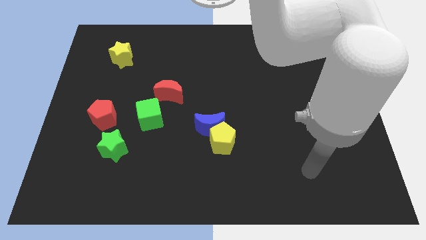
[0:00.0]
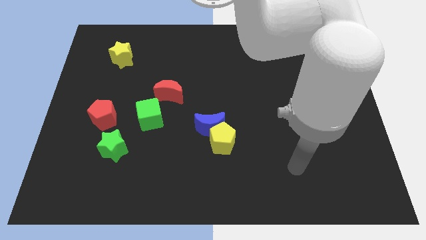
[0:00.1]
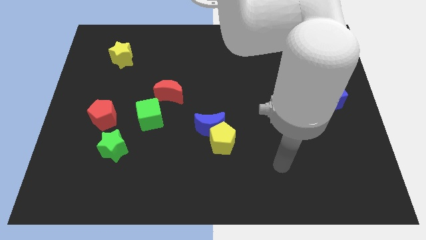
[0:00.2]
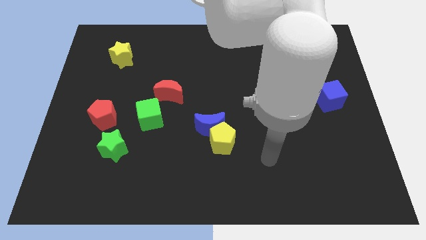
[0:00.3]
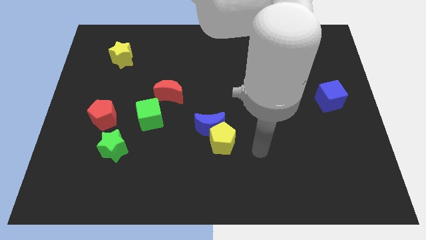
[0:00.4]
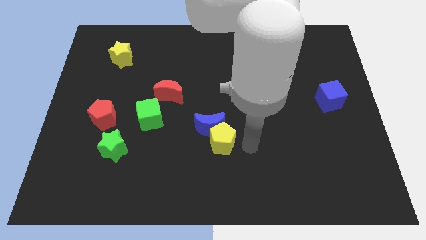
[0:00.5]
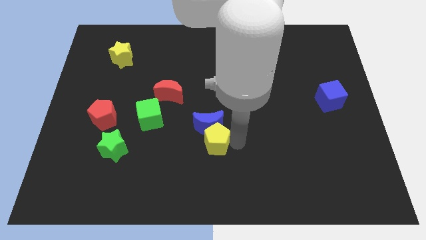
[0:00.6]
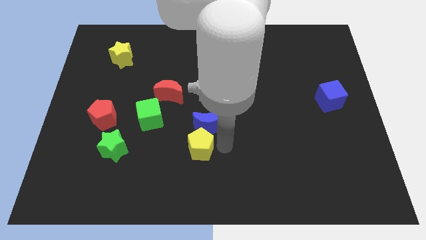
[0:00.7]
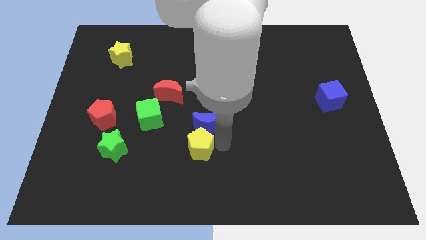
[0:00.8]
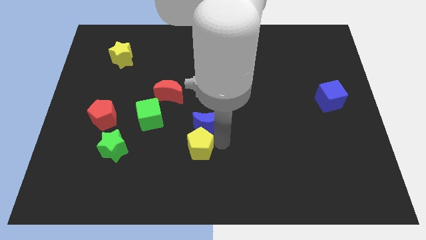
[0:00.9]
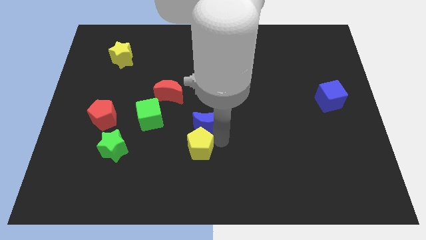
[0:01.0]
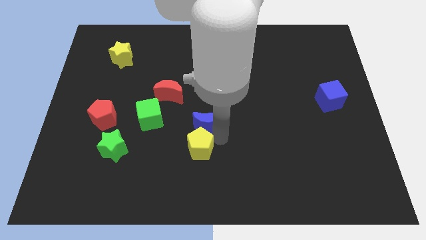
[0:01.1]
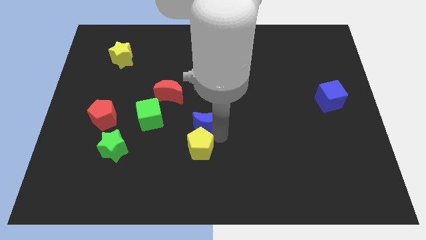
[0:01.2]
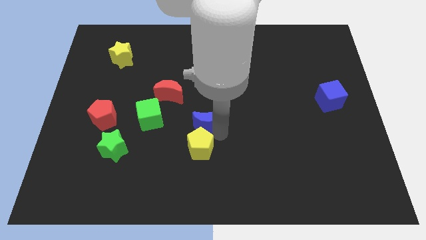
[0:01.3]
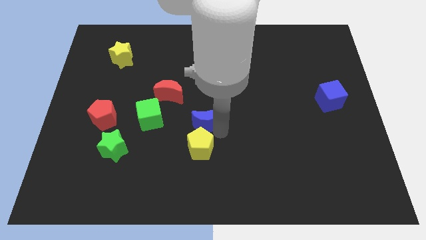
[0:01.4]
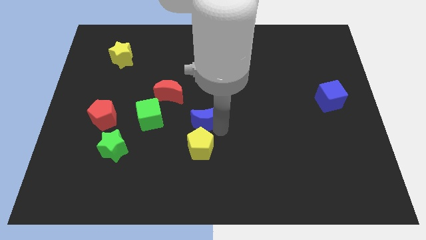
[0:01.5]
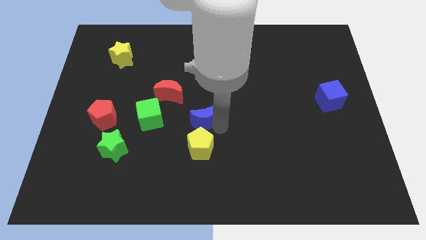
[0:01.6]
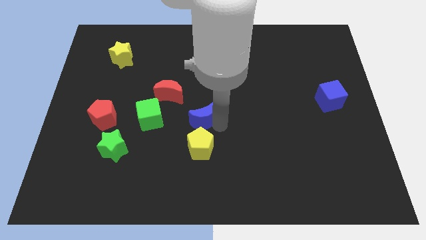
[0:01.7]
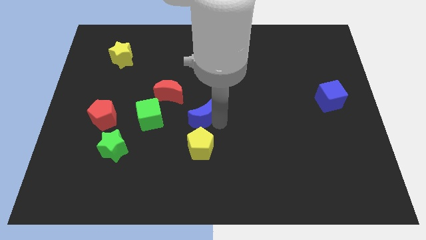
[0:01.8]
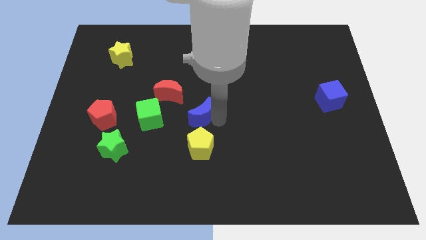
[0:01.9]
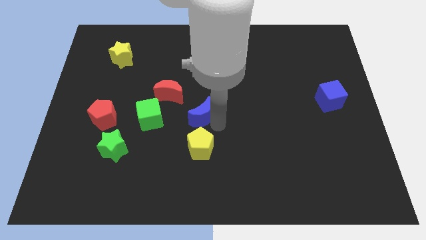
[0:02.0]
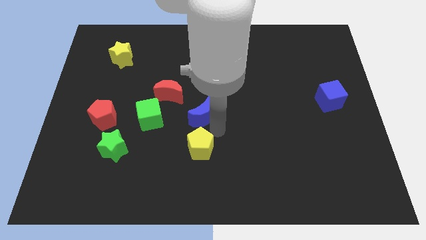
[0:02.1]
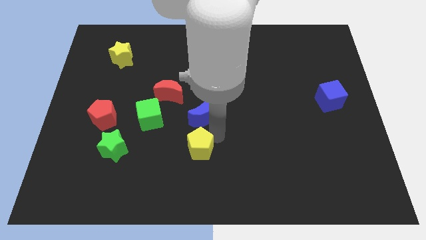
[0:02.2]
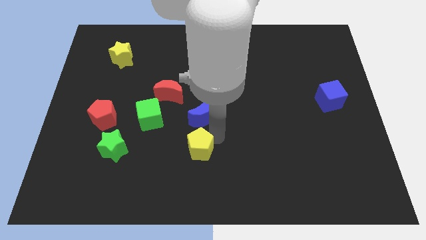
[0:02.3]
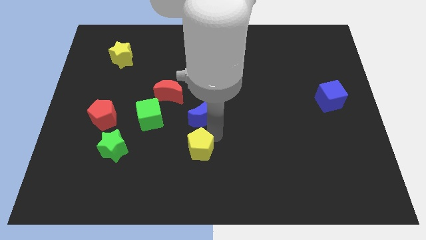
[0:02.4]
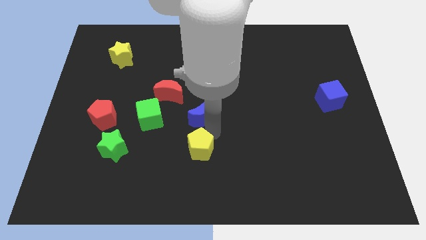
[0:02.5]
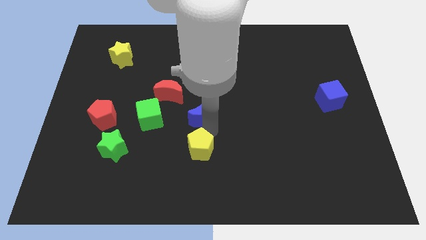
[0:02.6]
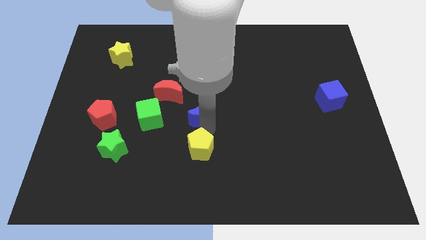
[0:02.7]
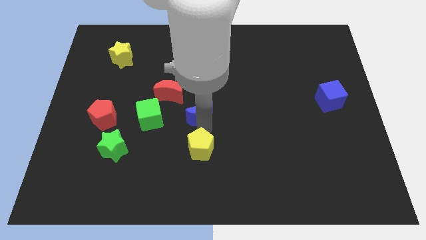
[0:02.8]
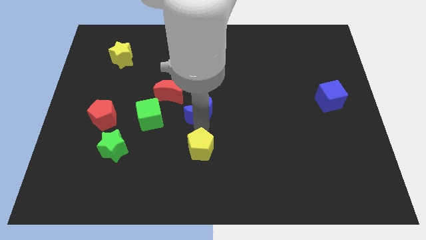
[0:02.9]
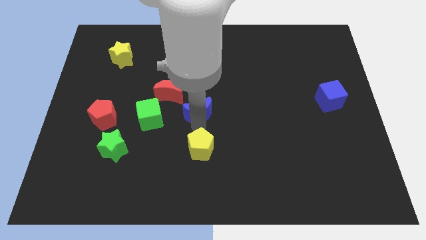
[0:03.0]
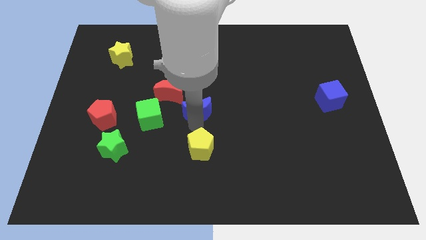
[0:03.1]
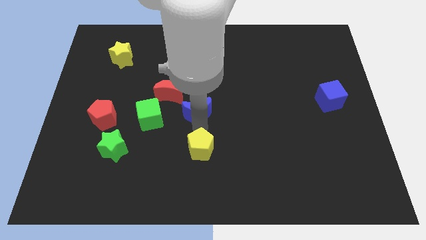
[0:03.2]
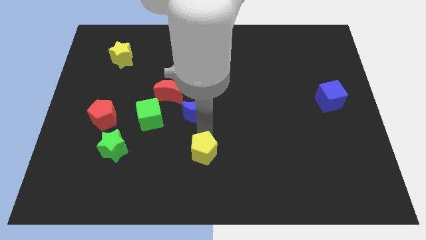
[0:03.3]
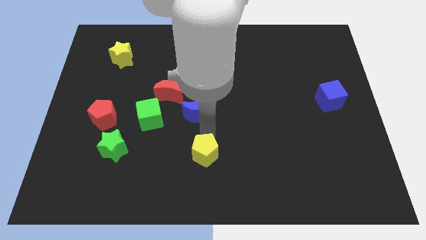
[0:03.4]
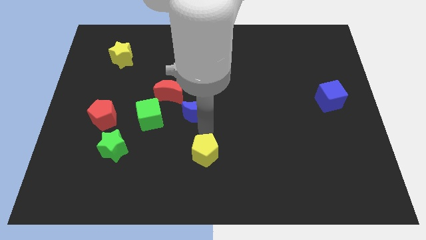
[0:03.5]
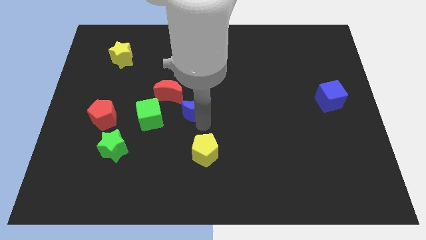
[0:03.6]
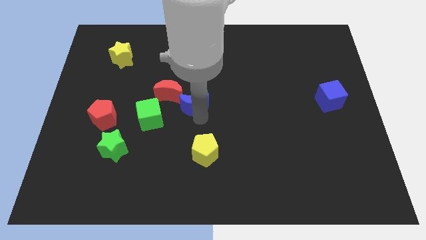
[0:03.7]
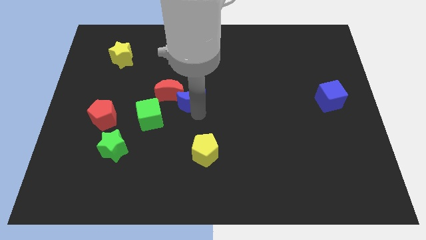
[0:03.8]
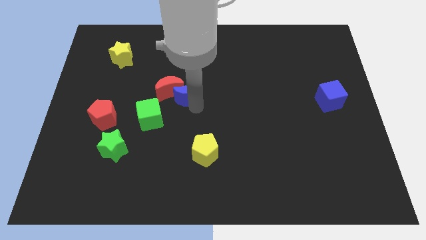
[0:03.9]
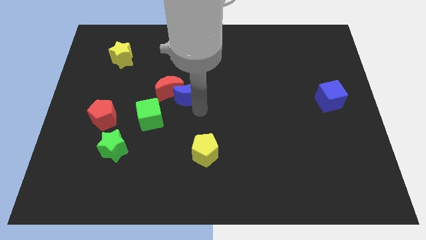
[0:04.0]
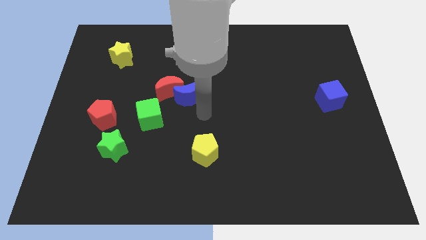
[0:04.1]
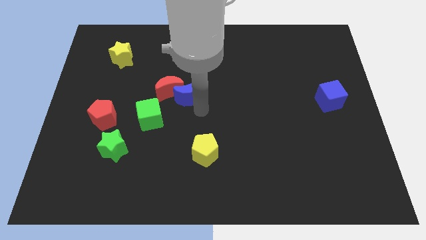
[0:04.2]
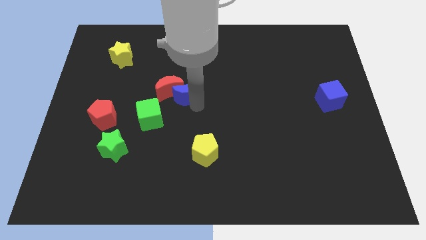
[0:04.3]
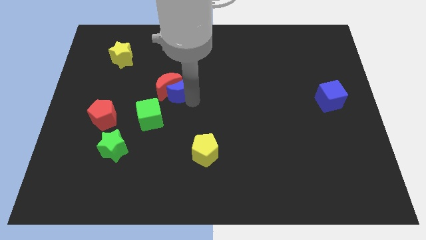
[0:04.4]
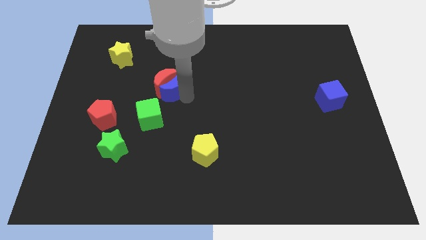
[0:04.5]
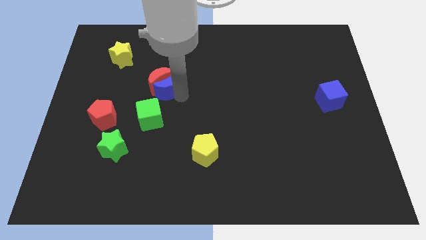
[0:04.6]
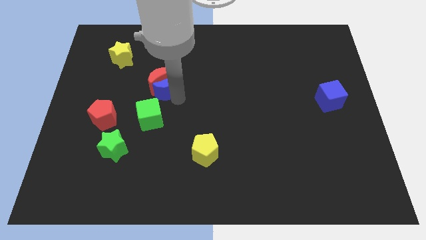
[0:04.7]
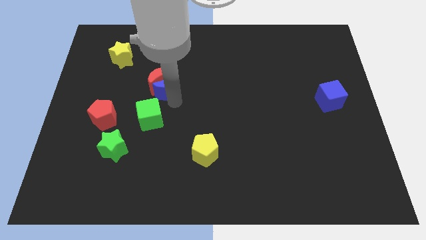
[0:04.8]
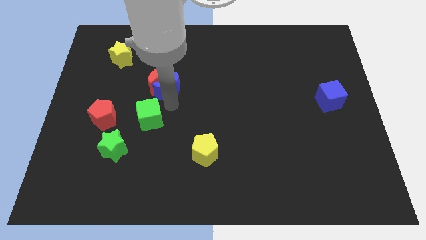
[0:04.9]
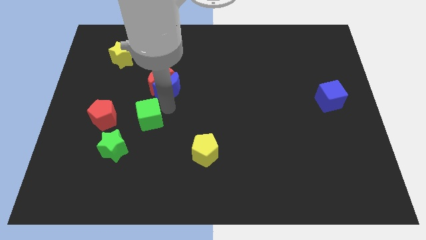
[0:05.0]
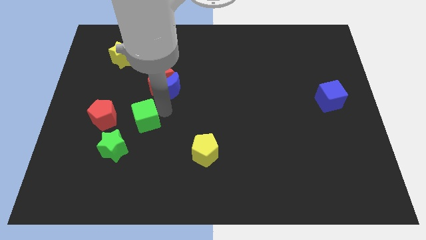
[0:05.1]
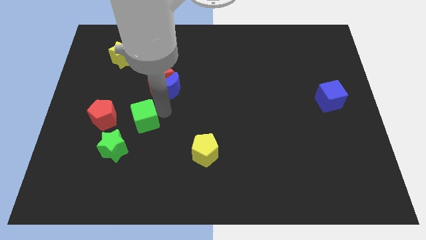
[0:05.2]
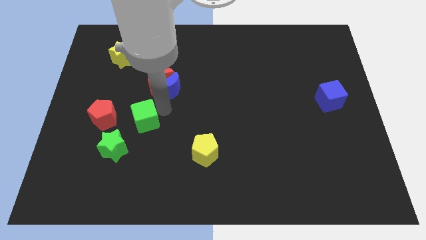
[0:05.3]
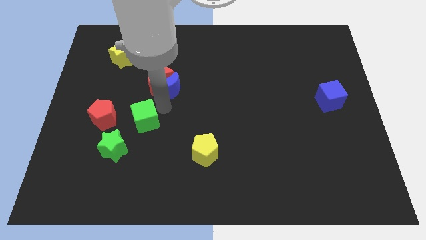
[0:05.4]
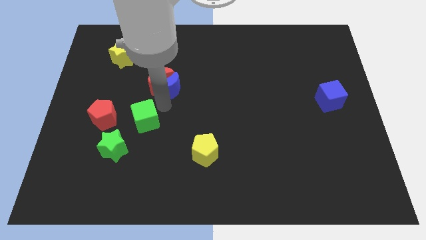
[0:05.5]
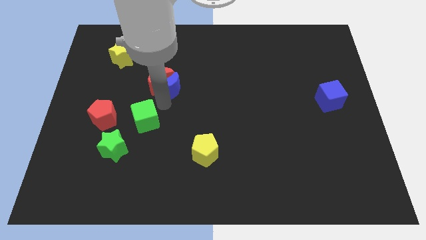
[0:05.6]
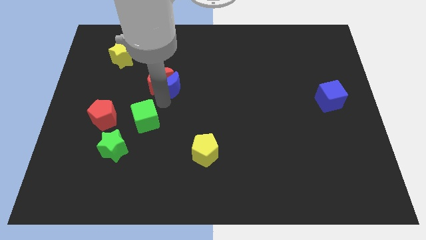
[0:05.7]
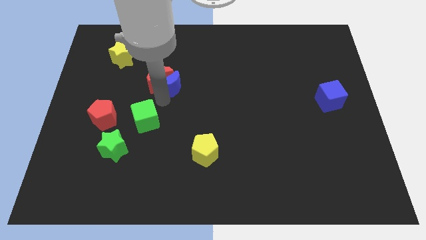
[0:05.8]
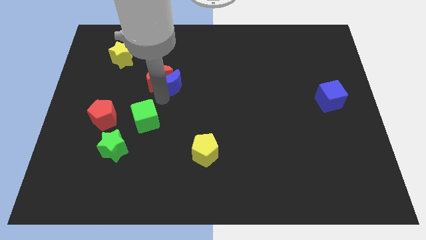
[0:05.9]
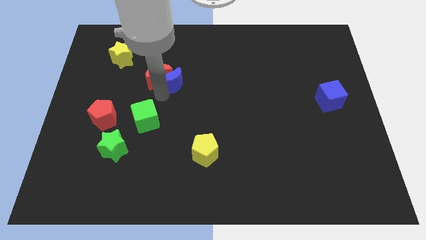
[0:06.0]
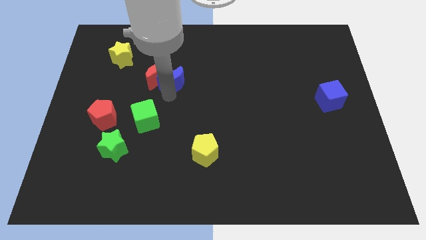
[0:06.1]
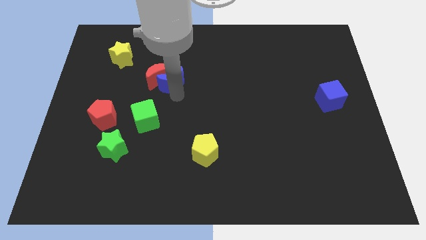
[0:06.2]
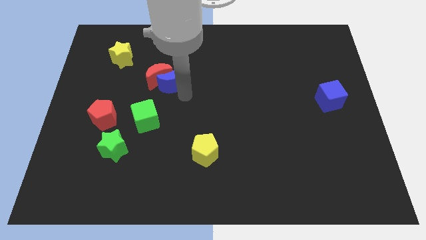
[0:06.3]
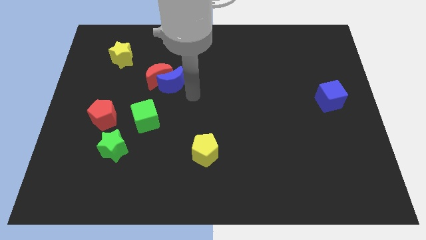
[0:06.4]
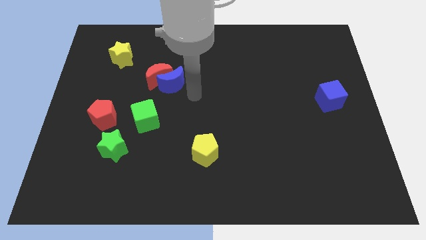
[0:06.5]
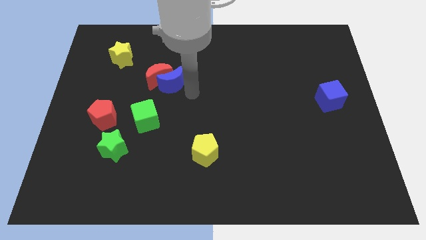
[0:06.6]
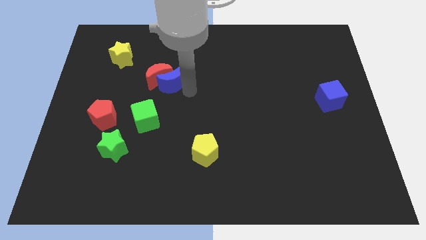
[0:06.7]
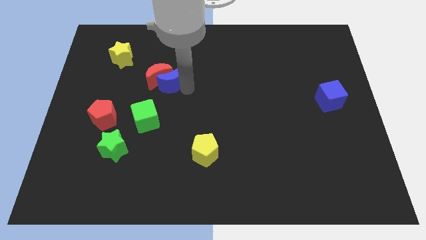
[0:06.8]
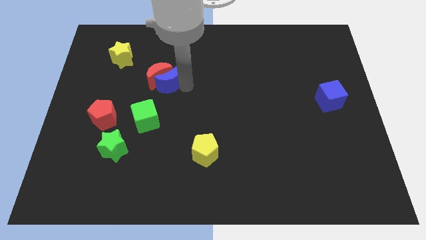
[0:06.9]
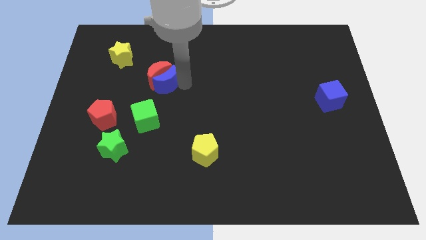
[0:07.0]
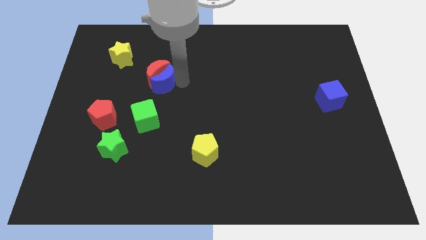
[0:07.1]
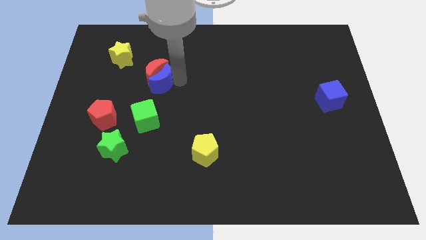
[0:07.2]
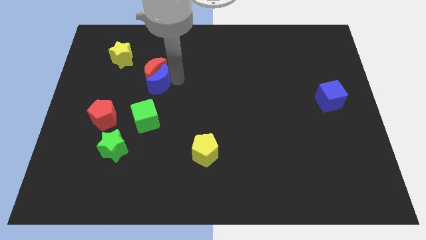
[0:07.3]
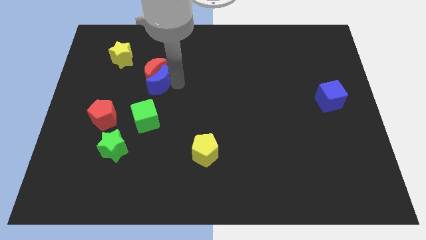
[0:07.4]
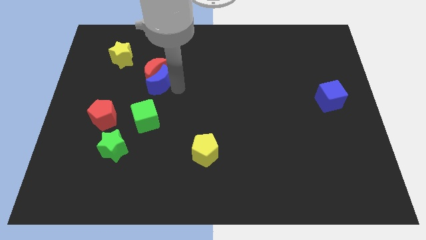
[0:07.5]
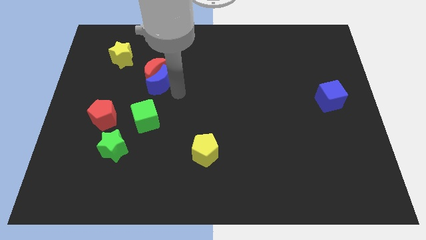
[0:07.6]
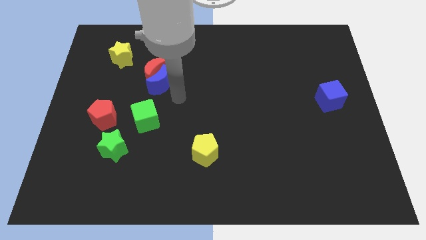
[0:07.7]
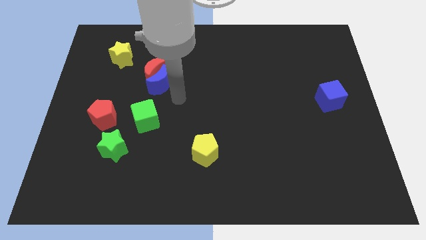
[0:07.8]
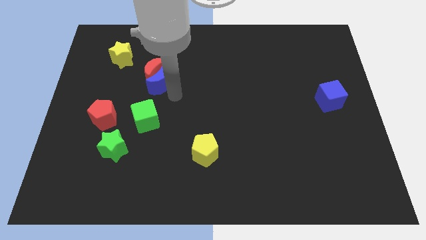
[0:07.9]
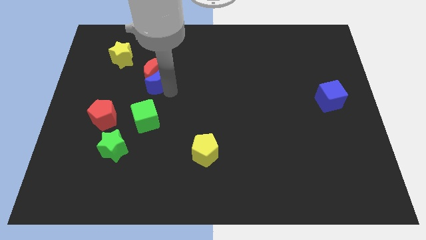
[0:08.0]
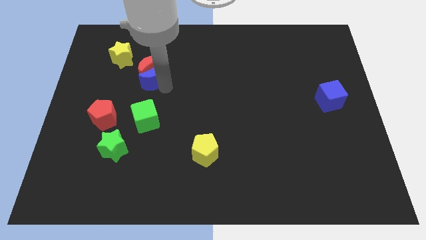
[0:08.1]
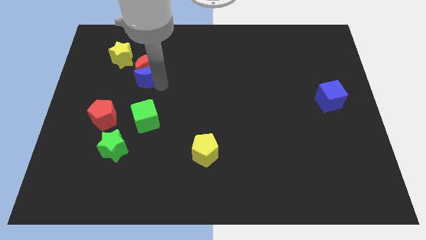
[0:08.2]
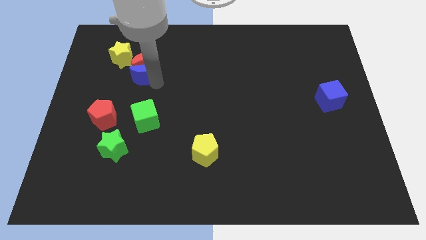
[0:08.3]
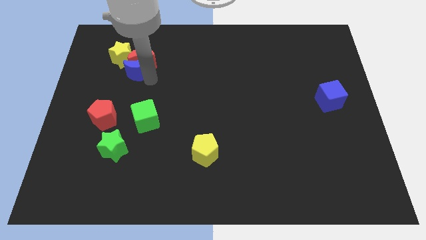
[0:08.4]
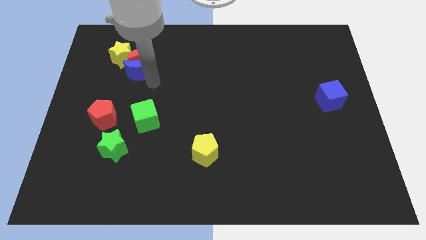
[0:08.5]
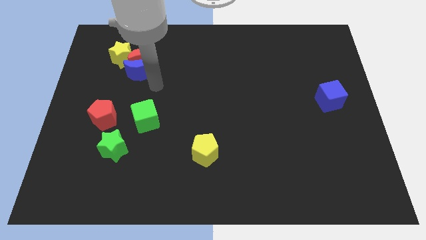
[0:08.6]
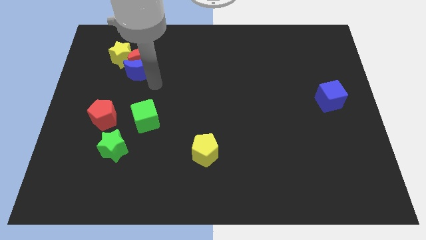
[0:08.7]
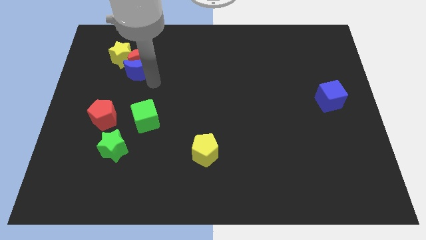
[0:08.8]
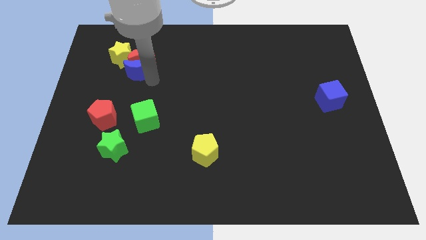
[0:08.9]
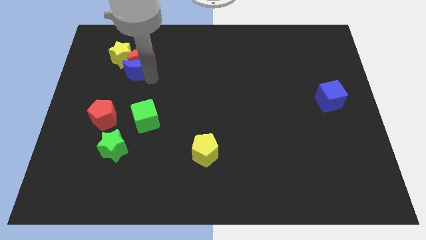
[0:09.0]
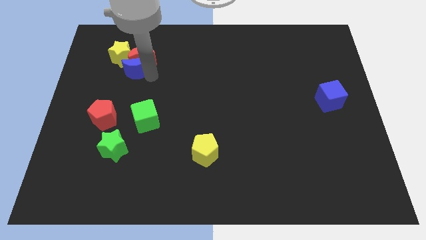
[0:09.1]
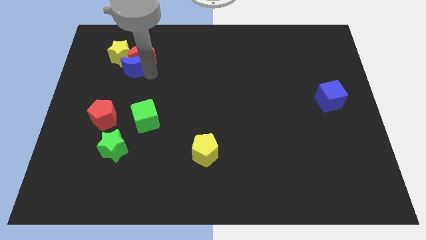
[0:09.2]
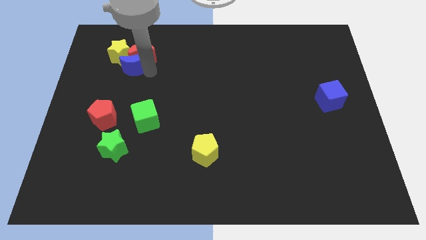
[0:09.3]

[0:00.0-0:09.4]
put the blue moon to the yellow star
